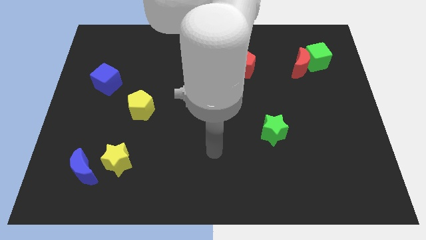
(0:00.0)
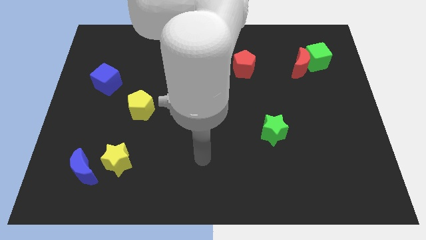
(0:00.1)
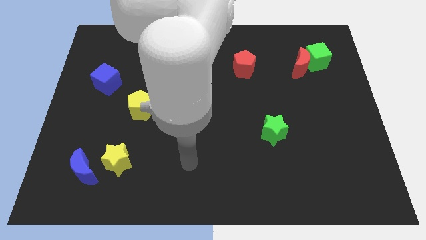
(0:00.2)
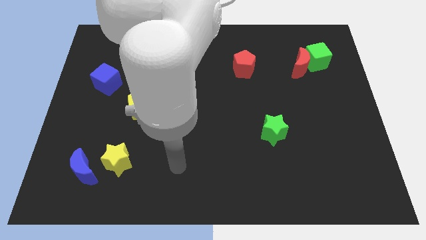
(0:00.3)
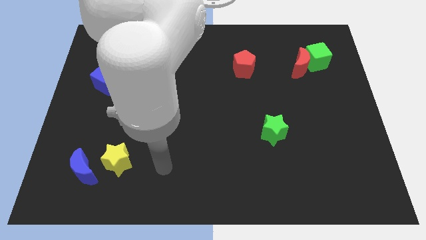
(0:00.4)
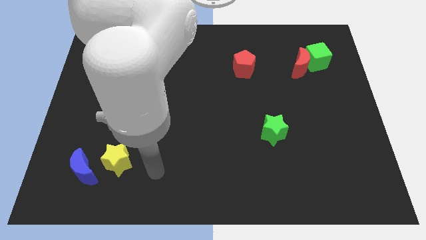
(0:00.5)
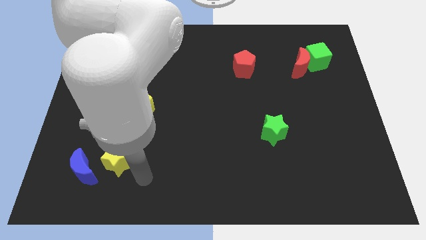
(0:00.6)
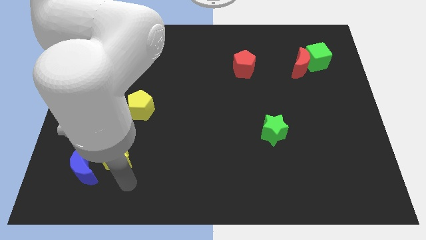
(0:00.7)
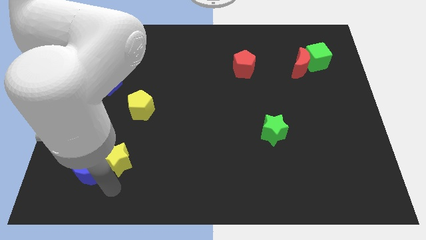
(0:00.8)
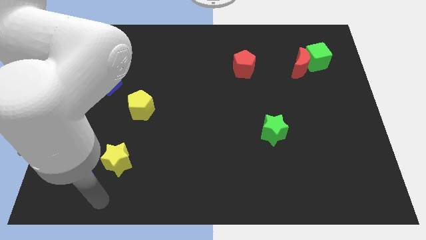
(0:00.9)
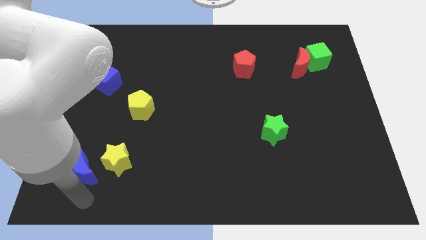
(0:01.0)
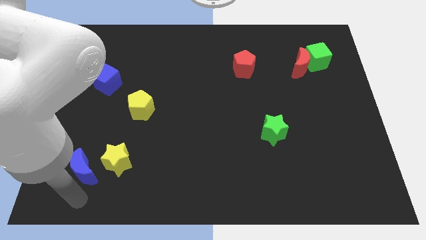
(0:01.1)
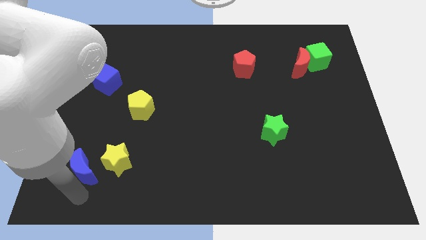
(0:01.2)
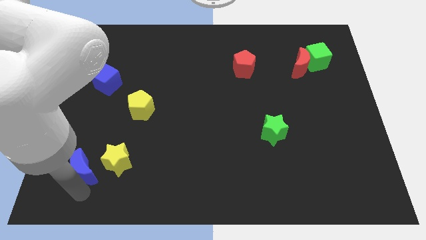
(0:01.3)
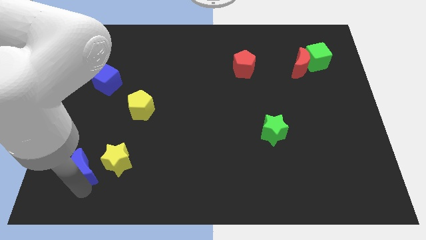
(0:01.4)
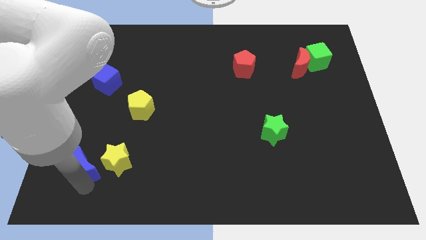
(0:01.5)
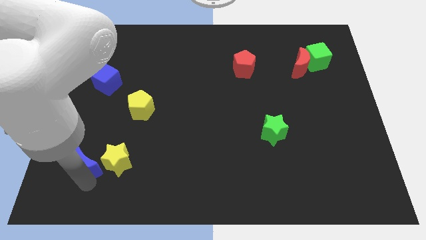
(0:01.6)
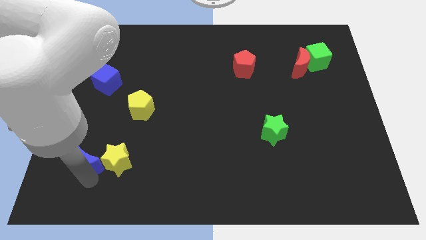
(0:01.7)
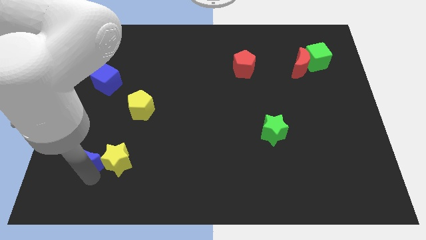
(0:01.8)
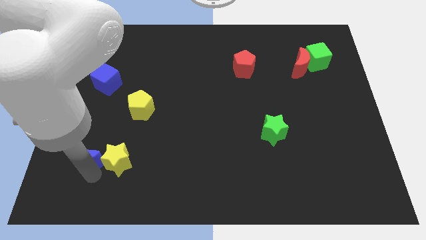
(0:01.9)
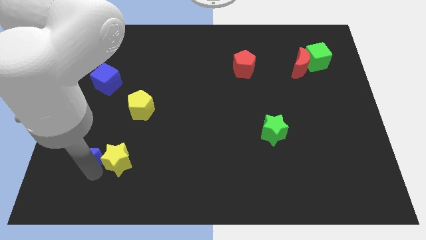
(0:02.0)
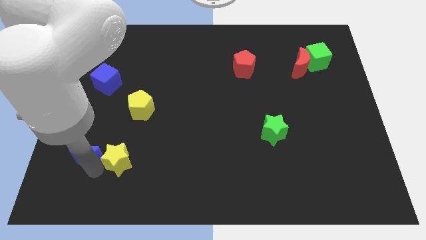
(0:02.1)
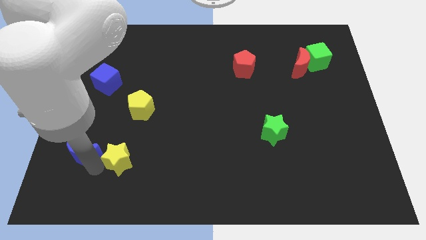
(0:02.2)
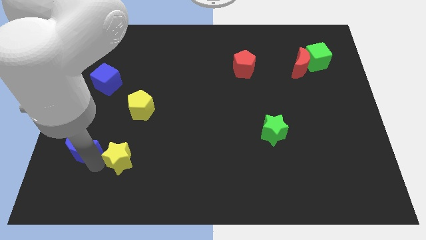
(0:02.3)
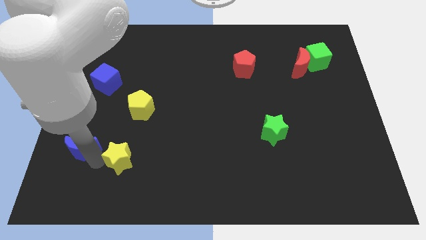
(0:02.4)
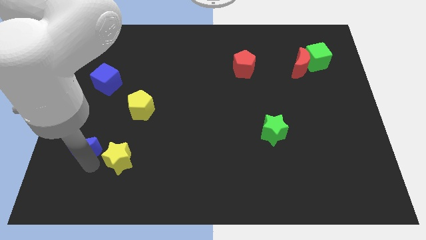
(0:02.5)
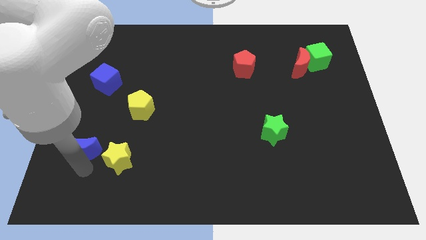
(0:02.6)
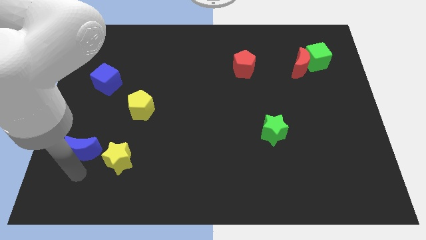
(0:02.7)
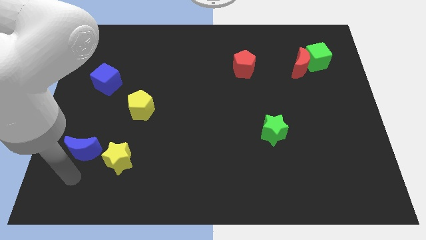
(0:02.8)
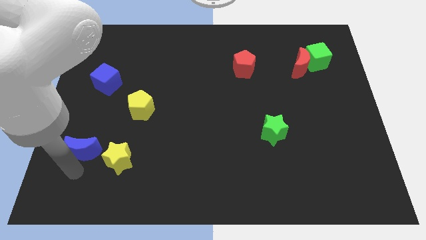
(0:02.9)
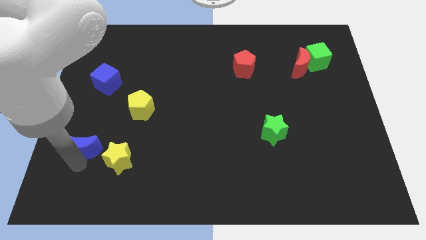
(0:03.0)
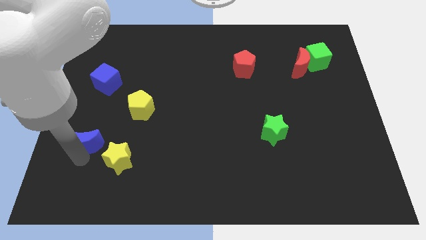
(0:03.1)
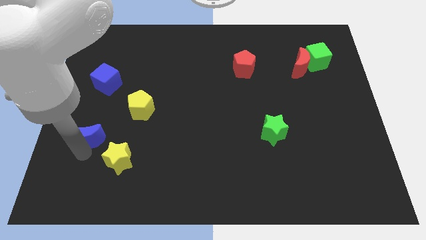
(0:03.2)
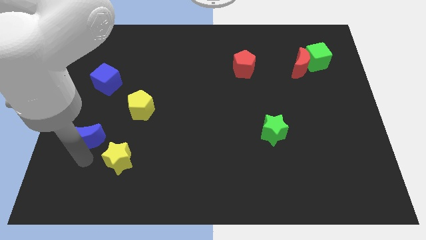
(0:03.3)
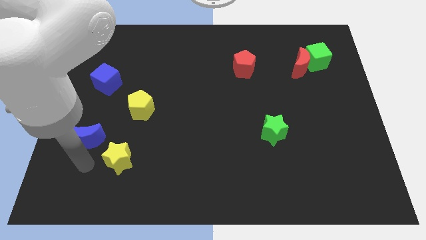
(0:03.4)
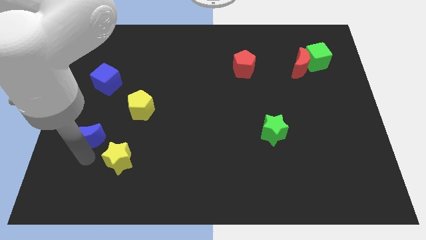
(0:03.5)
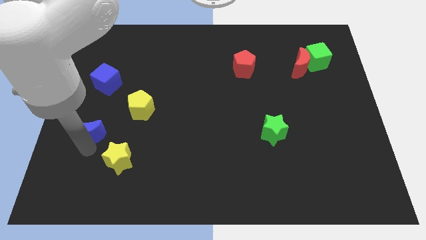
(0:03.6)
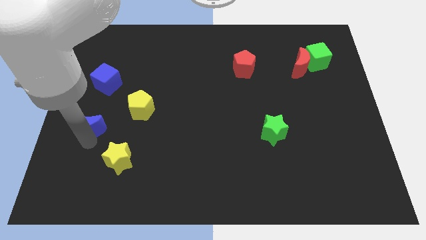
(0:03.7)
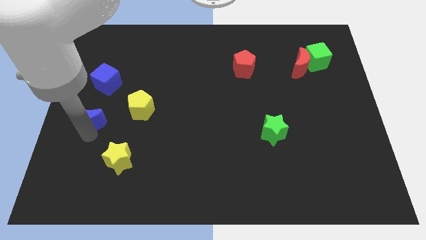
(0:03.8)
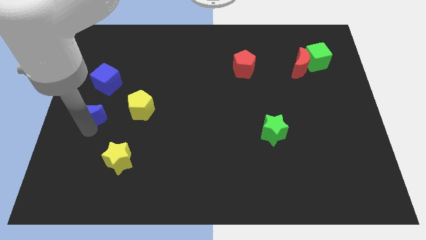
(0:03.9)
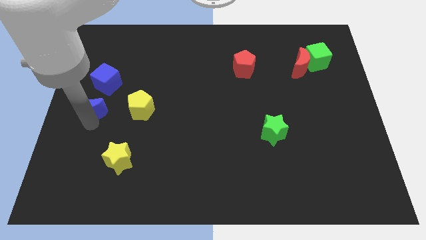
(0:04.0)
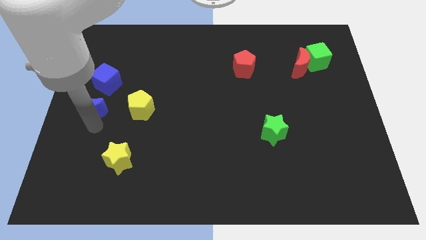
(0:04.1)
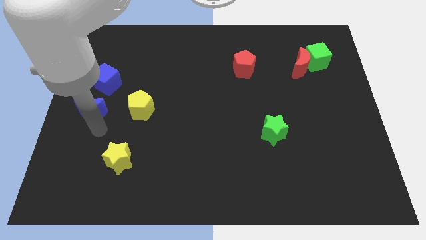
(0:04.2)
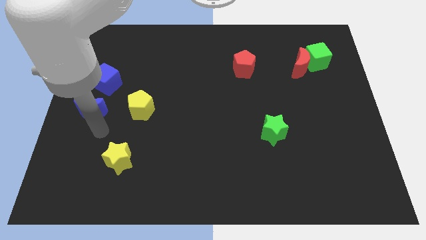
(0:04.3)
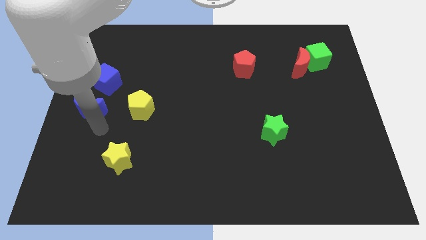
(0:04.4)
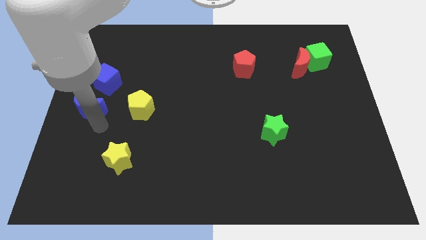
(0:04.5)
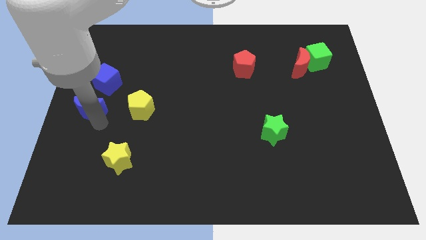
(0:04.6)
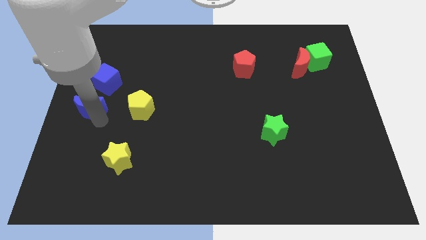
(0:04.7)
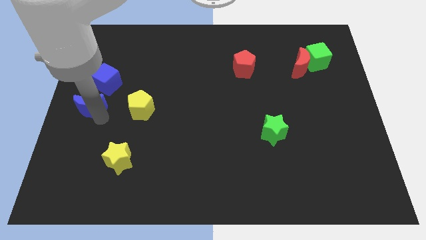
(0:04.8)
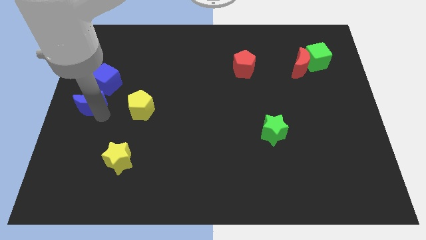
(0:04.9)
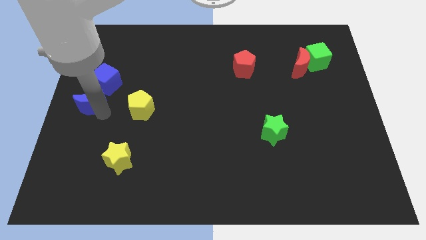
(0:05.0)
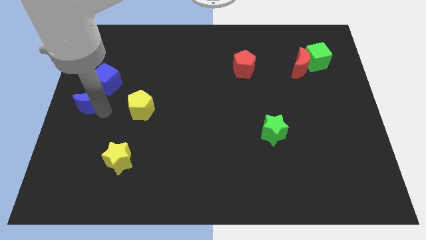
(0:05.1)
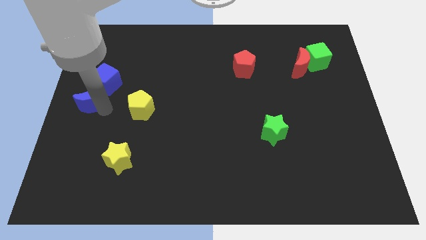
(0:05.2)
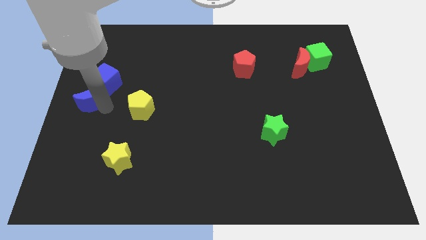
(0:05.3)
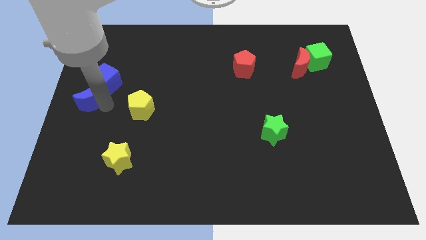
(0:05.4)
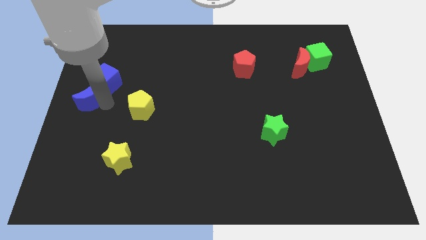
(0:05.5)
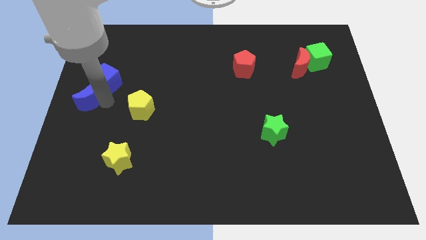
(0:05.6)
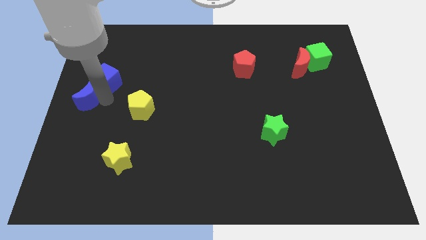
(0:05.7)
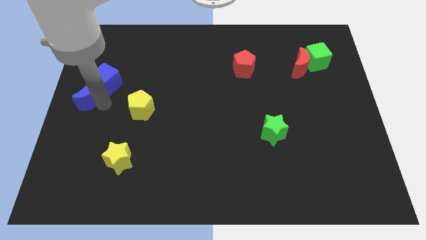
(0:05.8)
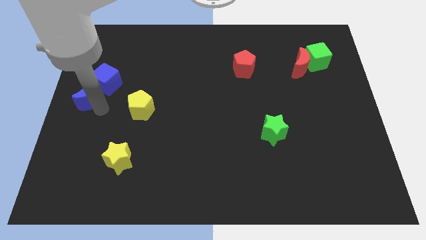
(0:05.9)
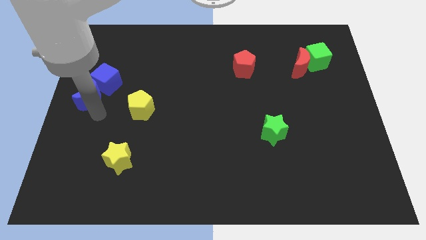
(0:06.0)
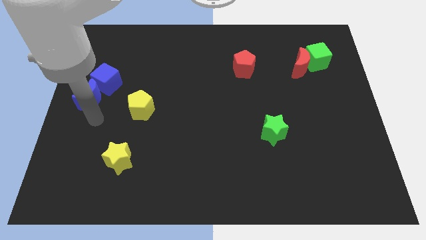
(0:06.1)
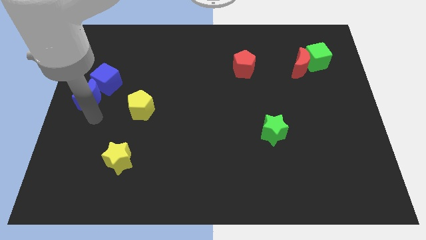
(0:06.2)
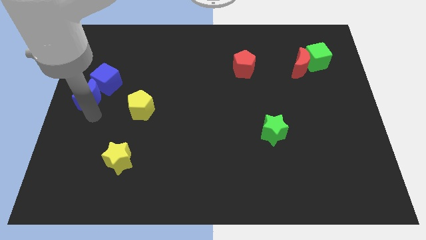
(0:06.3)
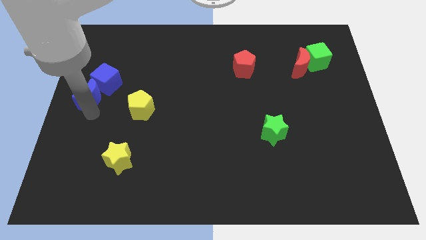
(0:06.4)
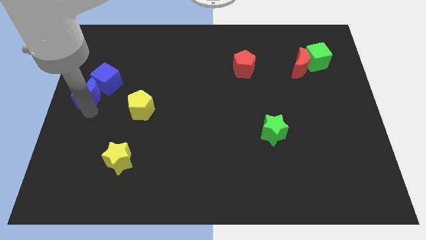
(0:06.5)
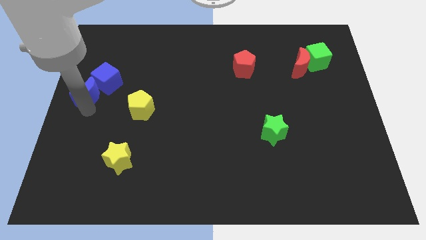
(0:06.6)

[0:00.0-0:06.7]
push the blue moon upwards

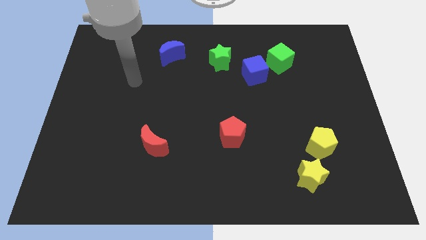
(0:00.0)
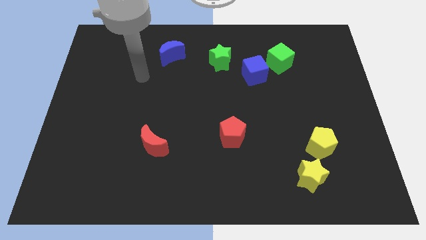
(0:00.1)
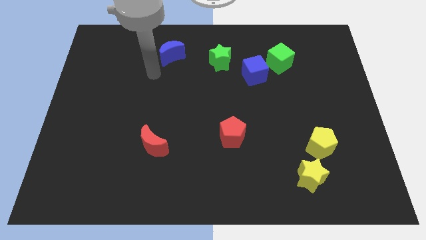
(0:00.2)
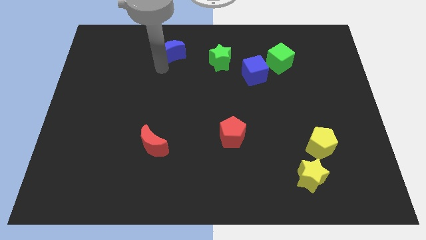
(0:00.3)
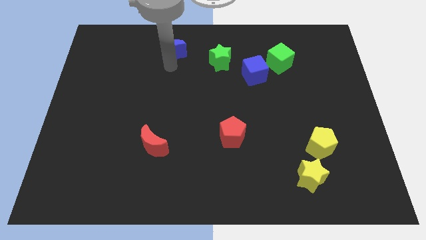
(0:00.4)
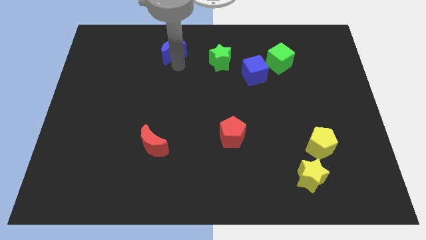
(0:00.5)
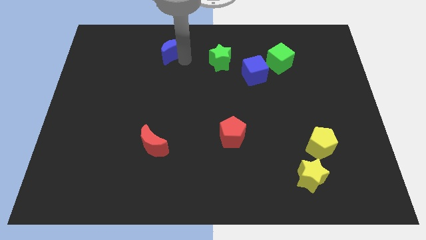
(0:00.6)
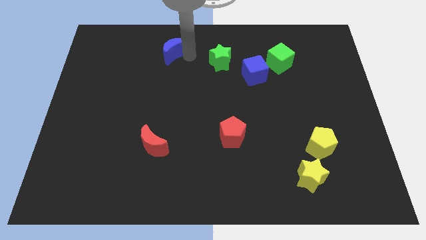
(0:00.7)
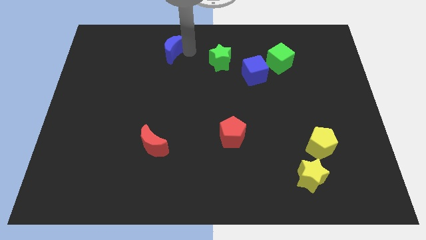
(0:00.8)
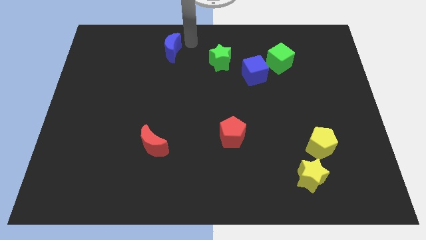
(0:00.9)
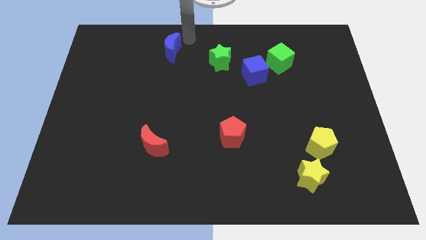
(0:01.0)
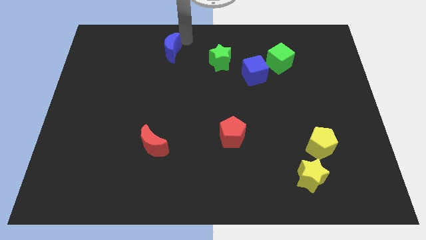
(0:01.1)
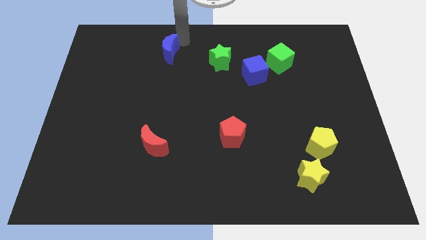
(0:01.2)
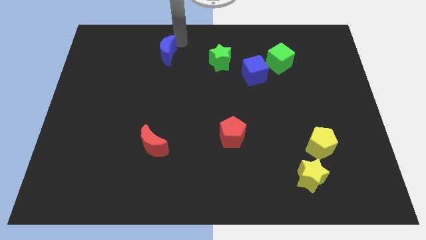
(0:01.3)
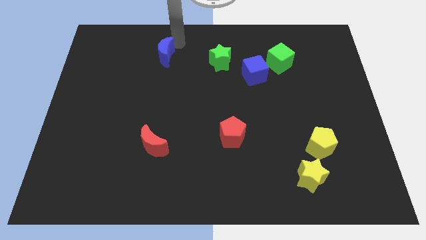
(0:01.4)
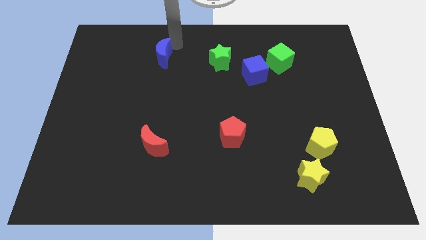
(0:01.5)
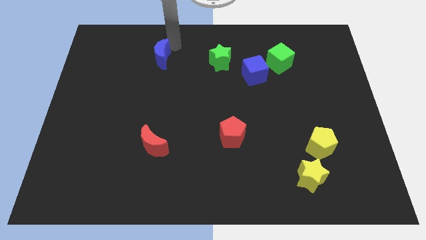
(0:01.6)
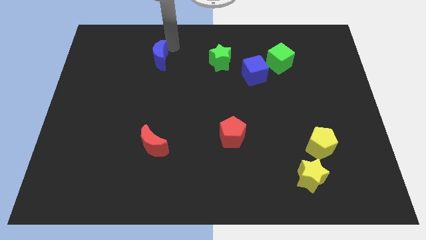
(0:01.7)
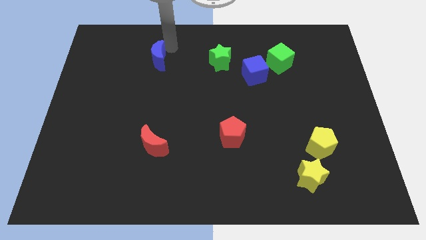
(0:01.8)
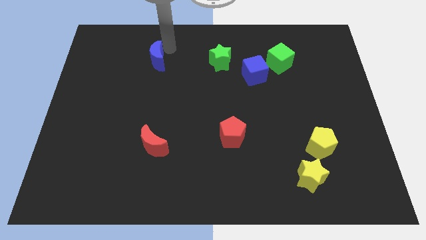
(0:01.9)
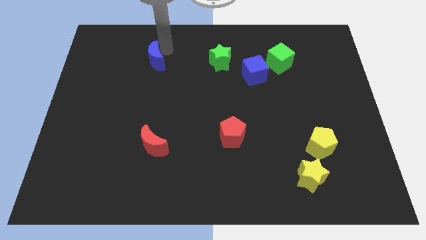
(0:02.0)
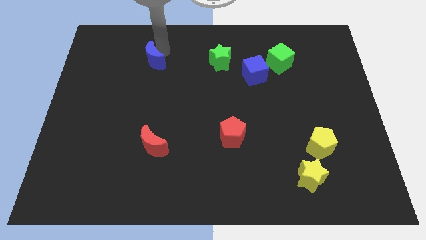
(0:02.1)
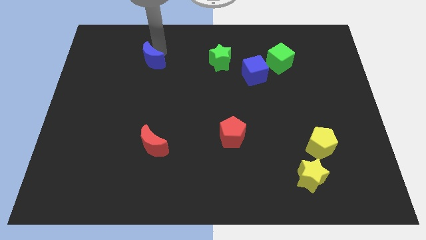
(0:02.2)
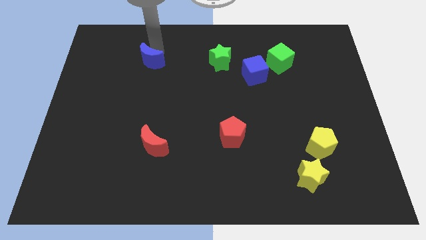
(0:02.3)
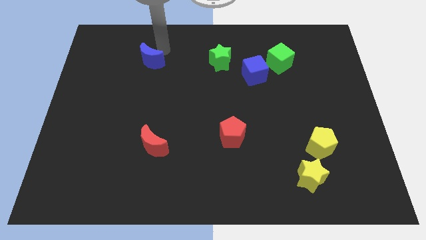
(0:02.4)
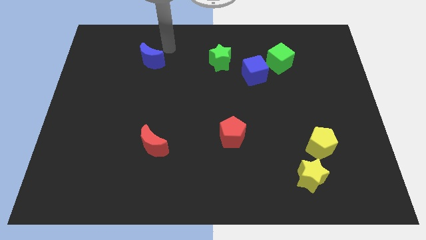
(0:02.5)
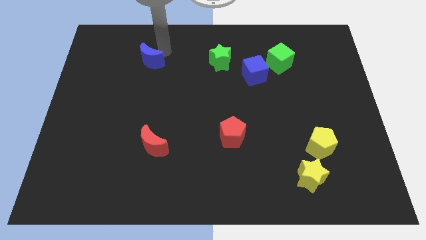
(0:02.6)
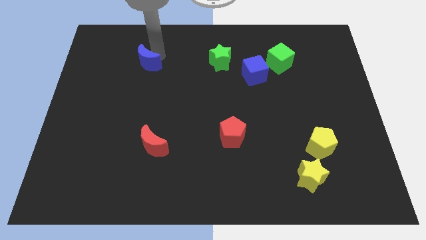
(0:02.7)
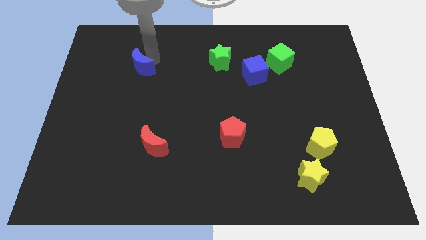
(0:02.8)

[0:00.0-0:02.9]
push the blue moon slightly downwards and then left
